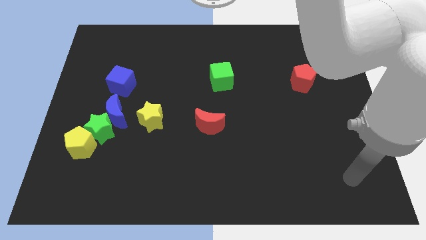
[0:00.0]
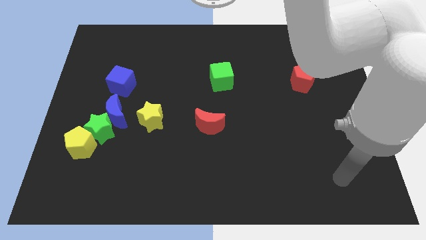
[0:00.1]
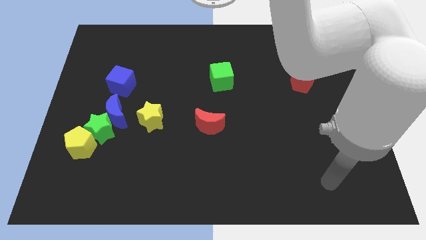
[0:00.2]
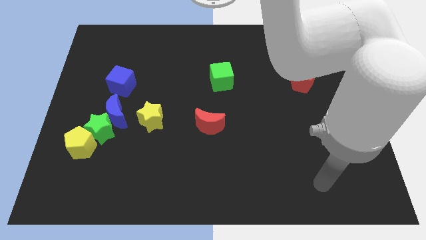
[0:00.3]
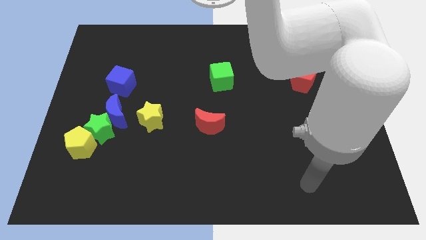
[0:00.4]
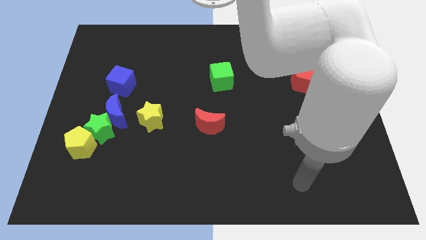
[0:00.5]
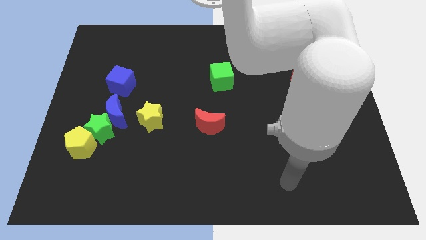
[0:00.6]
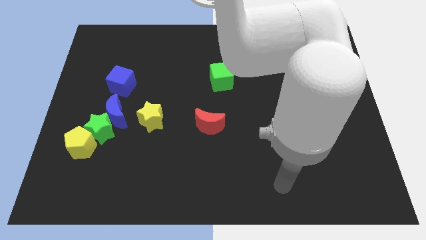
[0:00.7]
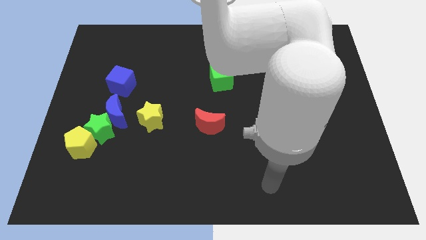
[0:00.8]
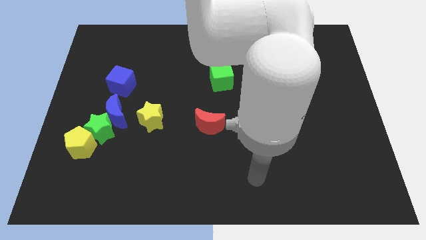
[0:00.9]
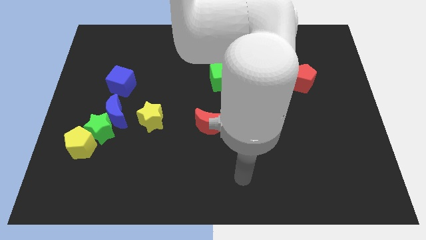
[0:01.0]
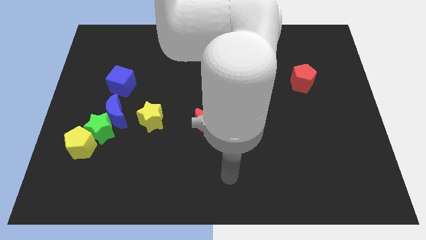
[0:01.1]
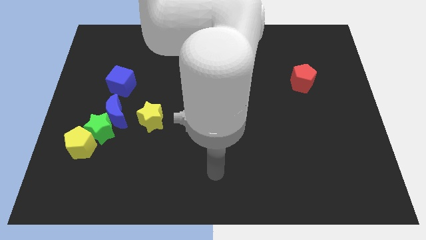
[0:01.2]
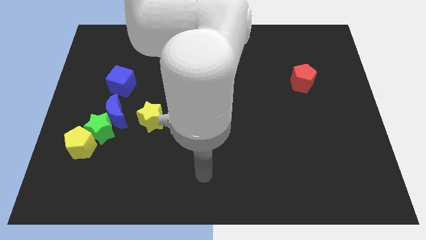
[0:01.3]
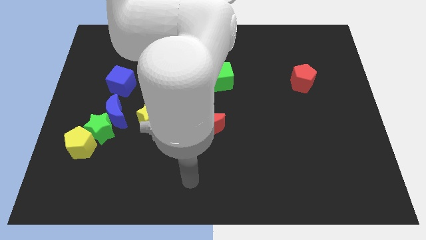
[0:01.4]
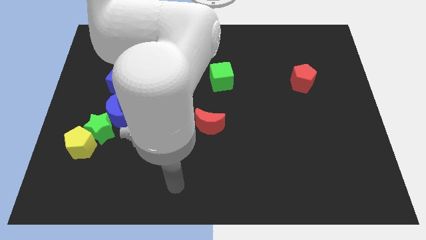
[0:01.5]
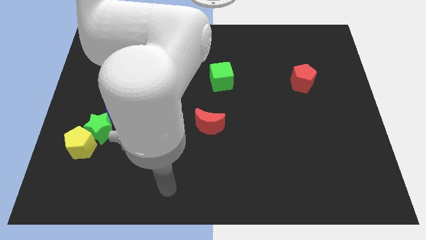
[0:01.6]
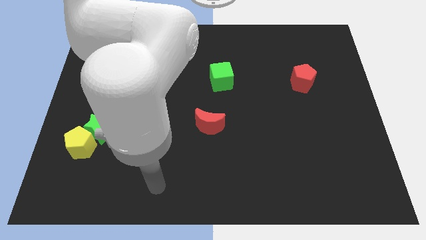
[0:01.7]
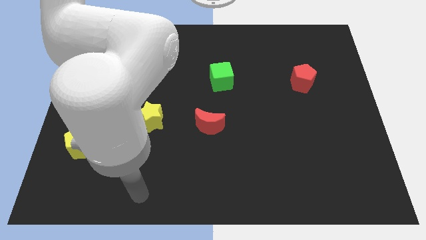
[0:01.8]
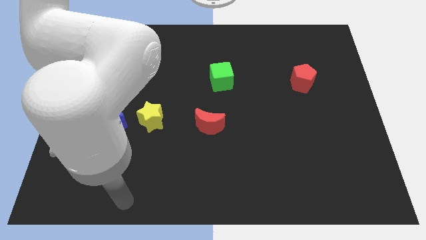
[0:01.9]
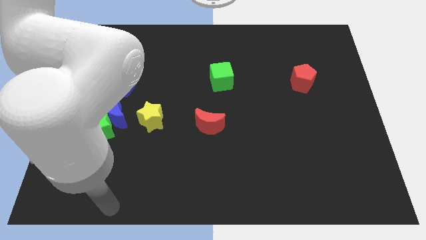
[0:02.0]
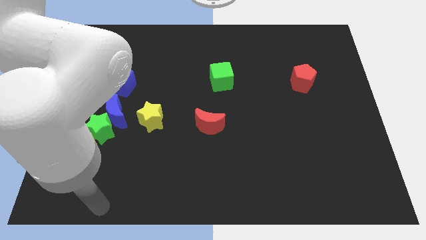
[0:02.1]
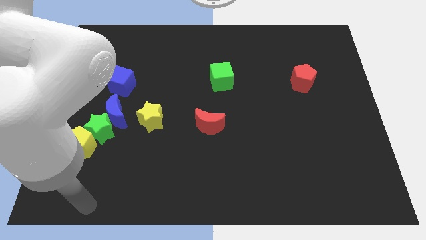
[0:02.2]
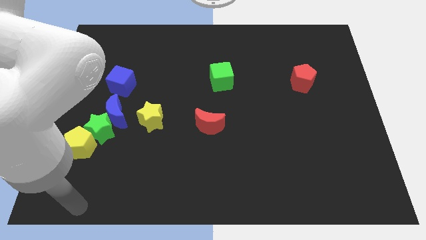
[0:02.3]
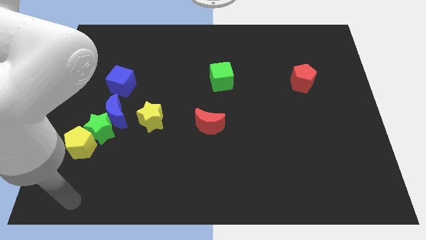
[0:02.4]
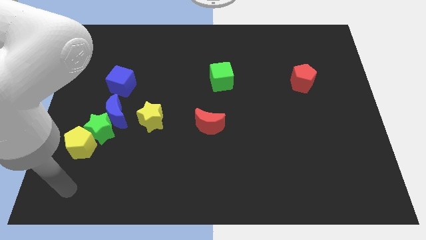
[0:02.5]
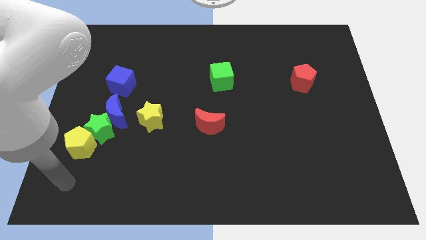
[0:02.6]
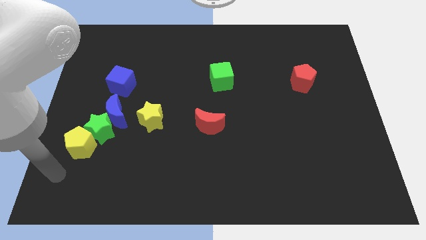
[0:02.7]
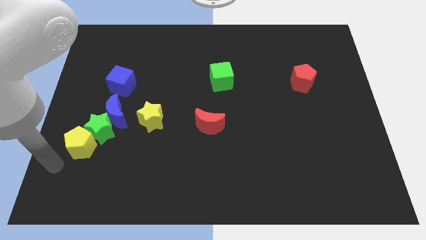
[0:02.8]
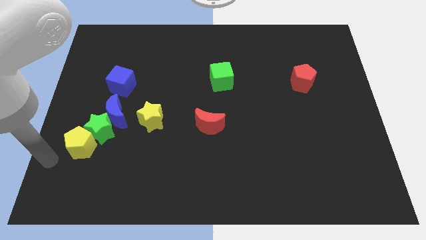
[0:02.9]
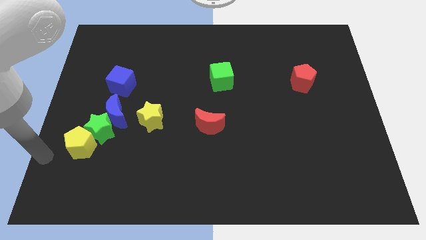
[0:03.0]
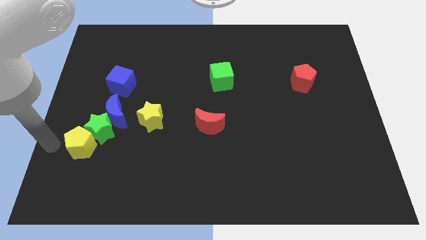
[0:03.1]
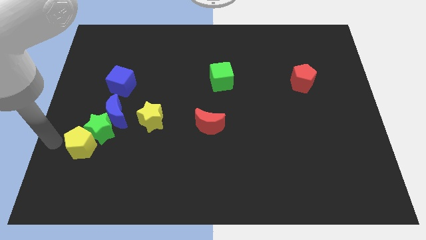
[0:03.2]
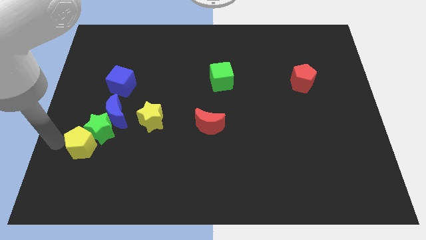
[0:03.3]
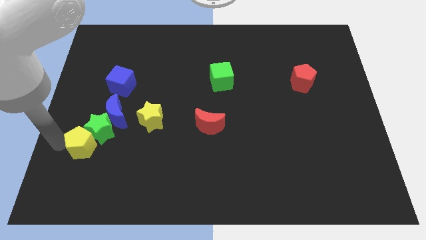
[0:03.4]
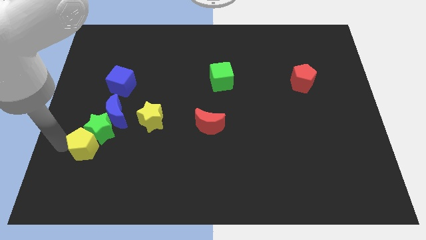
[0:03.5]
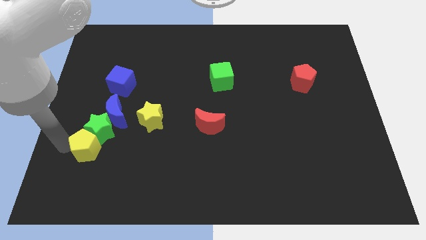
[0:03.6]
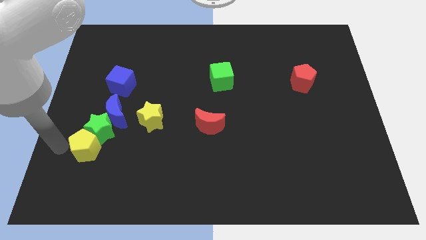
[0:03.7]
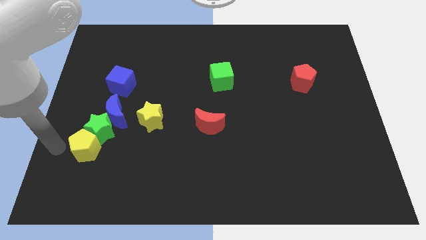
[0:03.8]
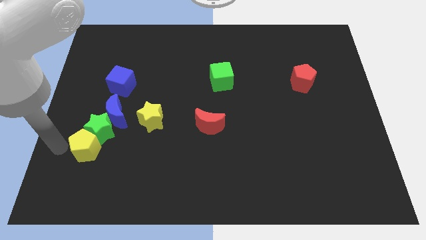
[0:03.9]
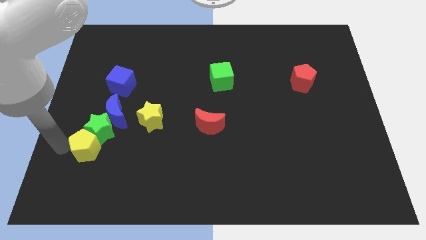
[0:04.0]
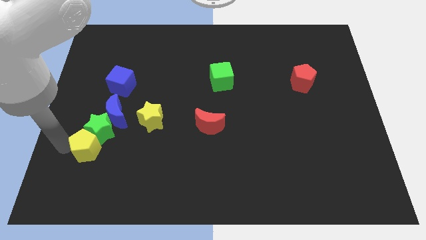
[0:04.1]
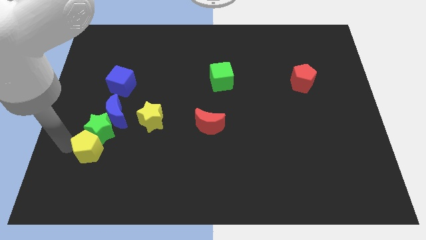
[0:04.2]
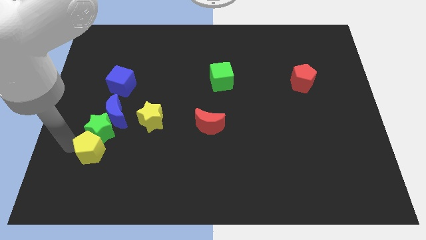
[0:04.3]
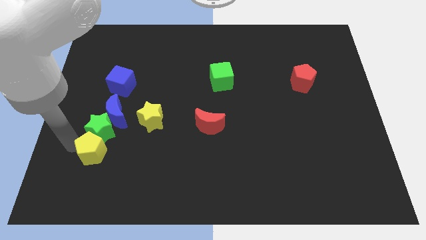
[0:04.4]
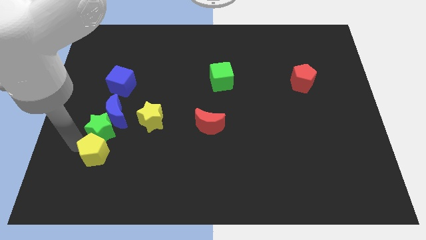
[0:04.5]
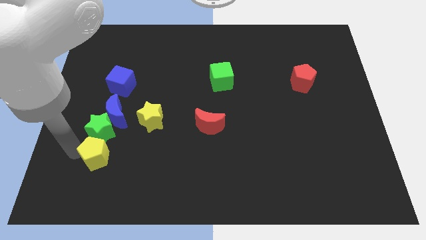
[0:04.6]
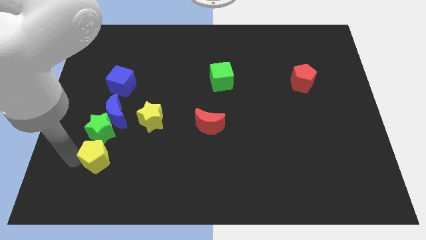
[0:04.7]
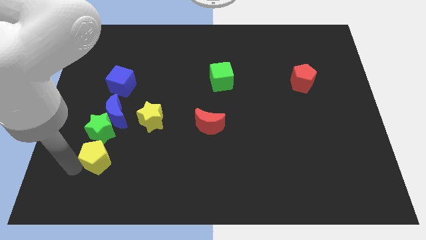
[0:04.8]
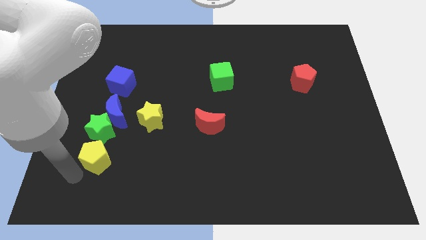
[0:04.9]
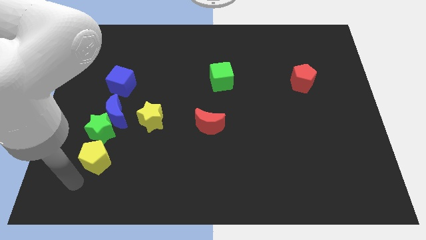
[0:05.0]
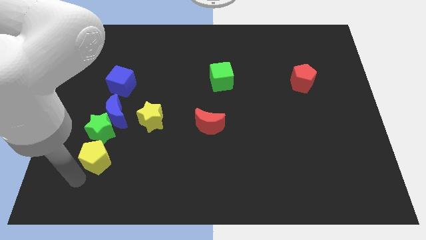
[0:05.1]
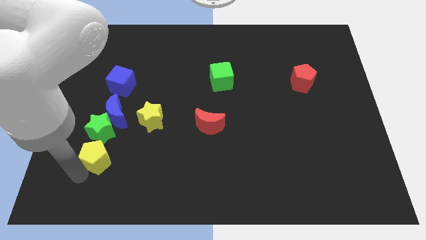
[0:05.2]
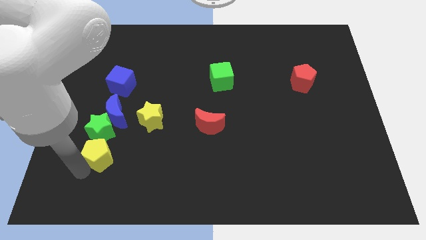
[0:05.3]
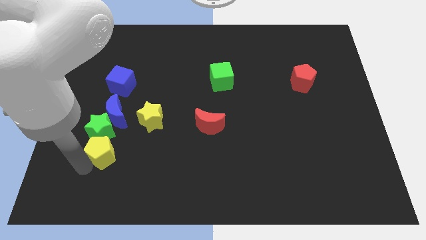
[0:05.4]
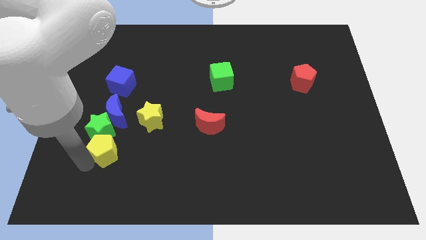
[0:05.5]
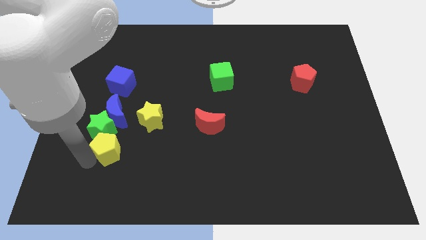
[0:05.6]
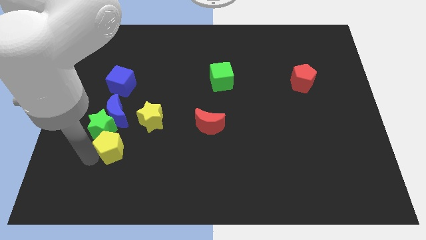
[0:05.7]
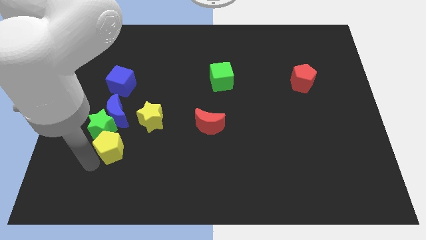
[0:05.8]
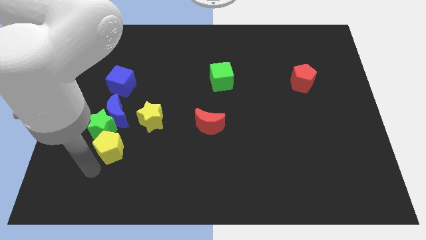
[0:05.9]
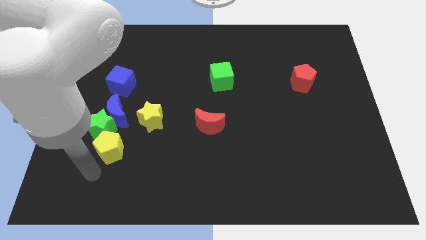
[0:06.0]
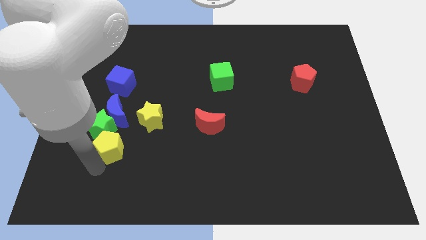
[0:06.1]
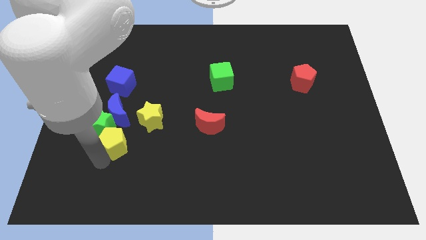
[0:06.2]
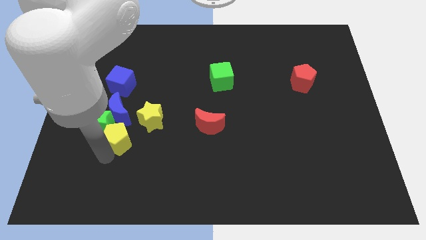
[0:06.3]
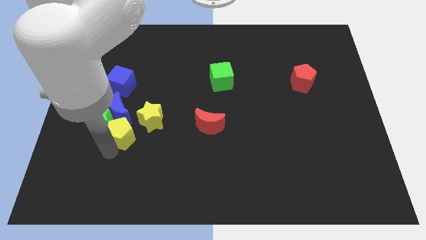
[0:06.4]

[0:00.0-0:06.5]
push the yellow pentagon slightly up and right

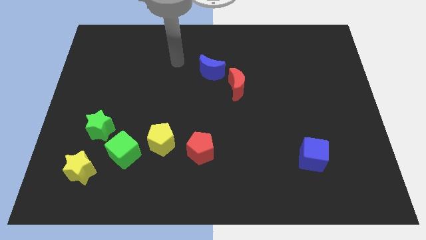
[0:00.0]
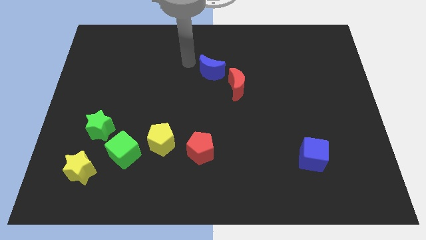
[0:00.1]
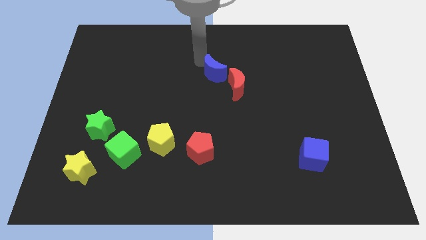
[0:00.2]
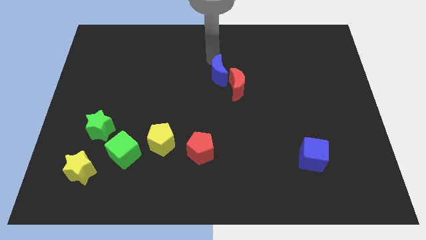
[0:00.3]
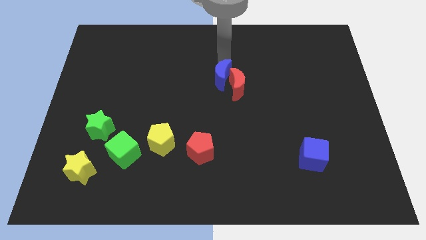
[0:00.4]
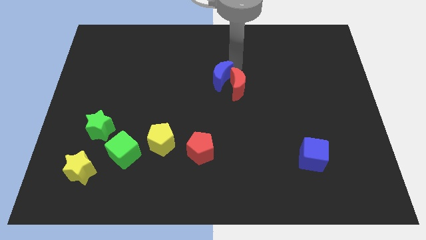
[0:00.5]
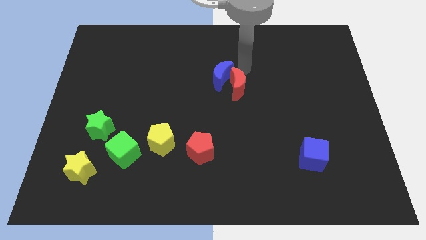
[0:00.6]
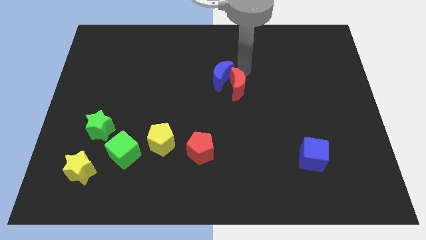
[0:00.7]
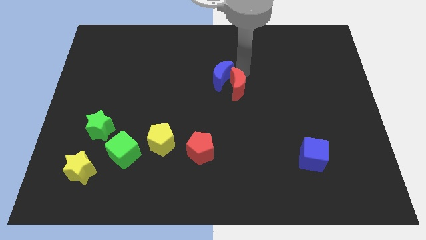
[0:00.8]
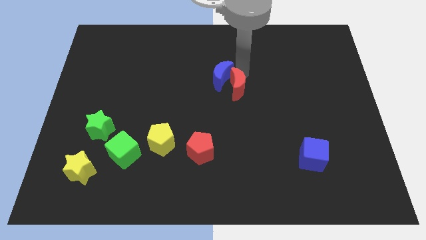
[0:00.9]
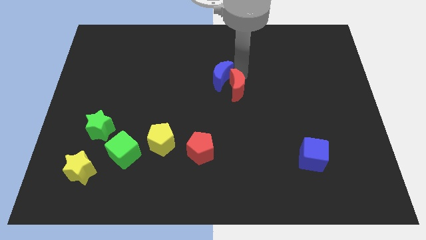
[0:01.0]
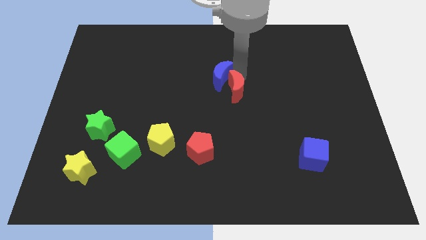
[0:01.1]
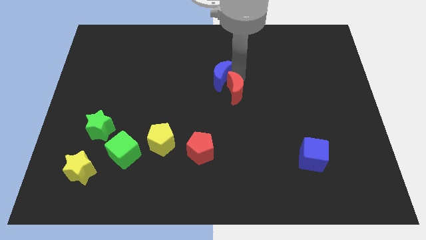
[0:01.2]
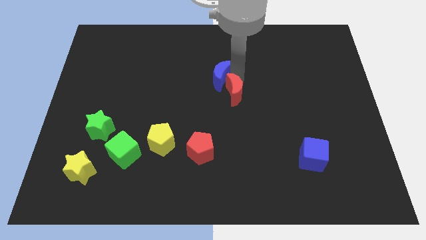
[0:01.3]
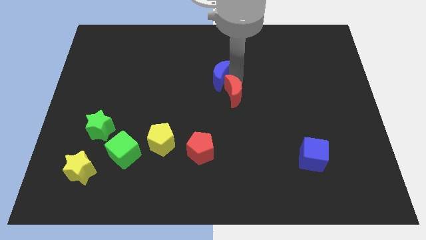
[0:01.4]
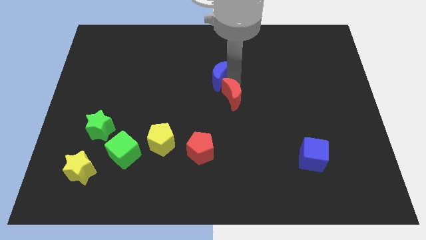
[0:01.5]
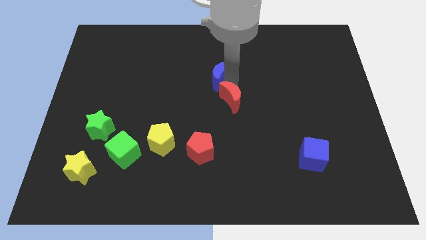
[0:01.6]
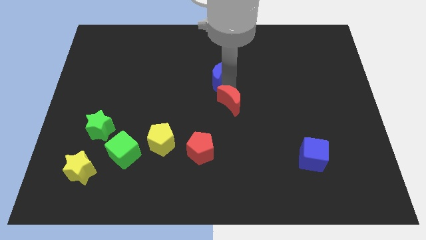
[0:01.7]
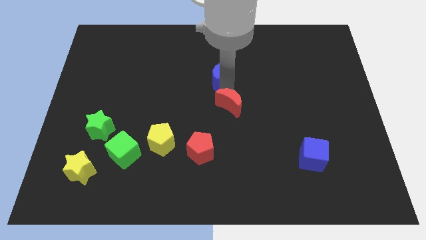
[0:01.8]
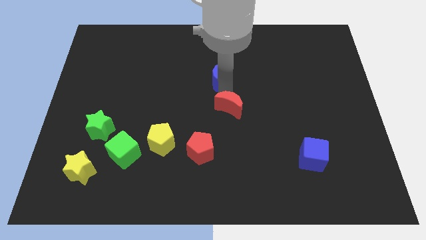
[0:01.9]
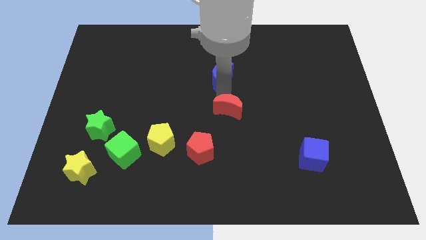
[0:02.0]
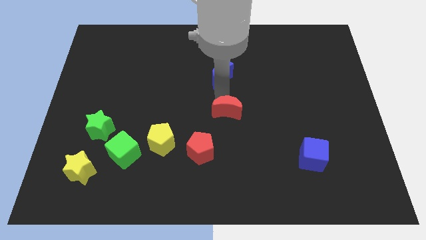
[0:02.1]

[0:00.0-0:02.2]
move the red moon downwards somewhat

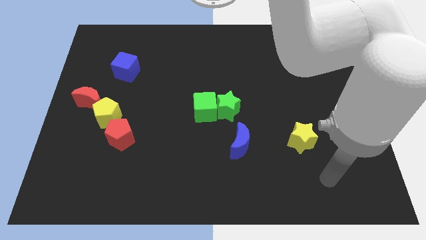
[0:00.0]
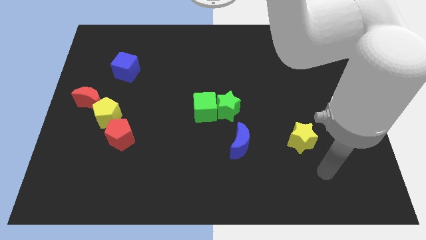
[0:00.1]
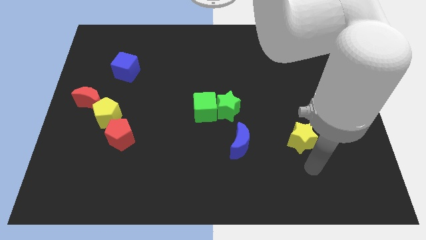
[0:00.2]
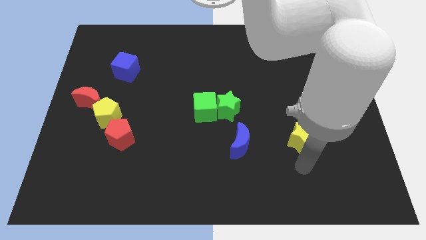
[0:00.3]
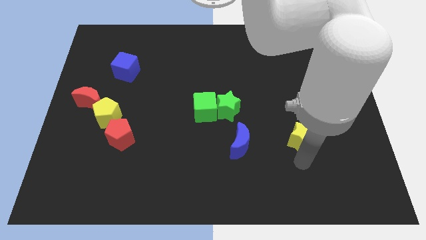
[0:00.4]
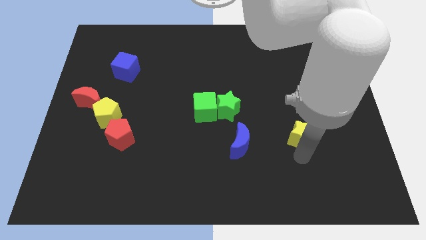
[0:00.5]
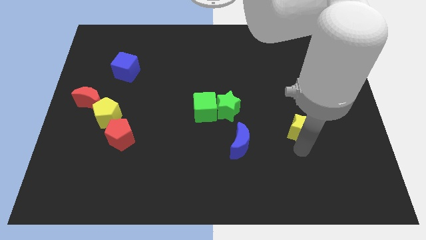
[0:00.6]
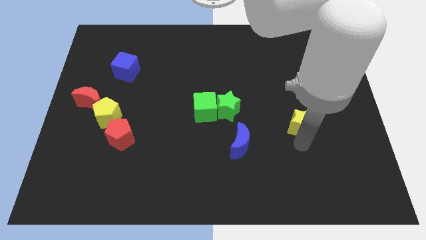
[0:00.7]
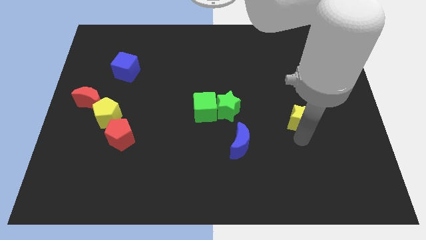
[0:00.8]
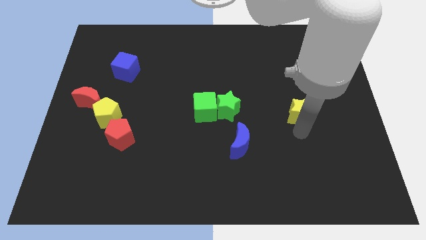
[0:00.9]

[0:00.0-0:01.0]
slide the yellow star somewhat upwards
